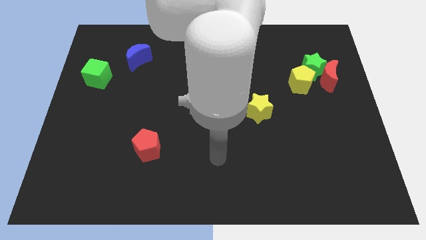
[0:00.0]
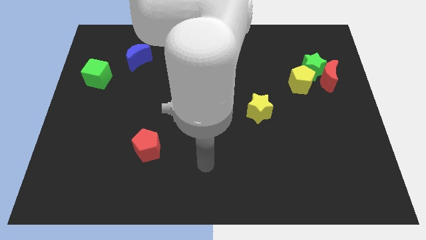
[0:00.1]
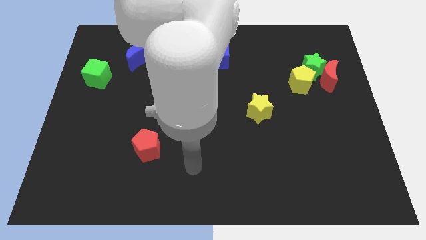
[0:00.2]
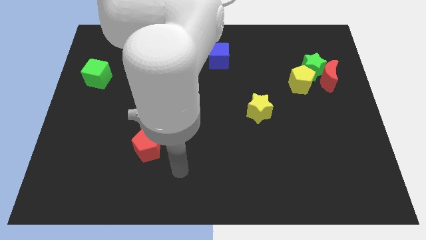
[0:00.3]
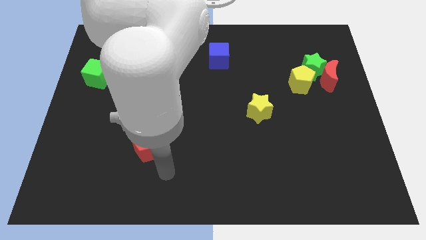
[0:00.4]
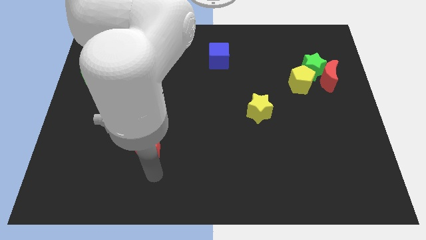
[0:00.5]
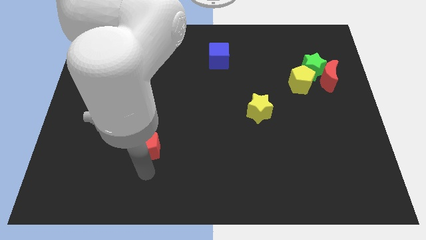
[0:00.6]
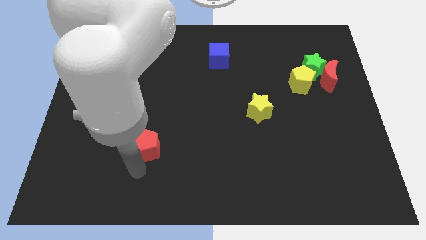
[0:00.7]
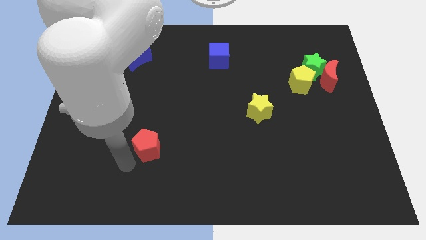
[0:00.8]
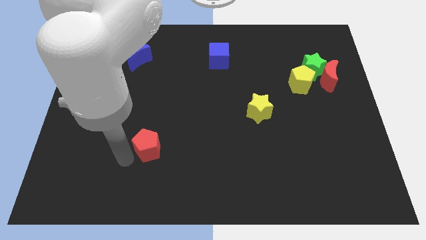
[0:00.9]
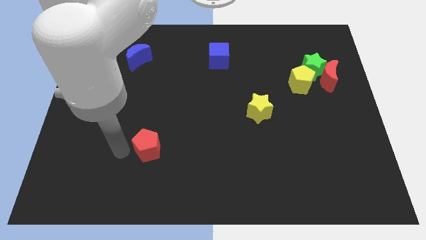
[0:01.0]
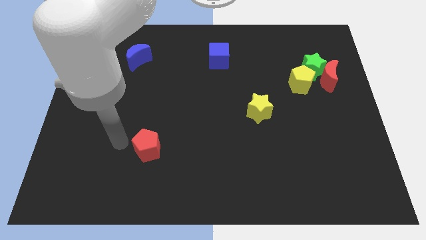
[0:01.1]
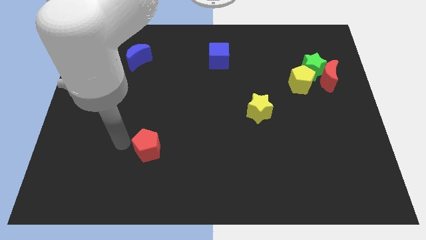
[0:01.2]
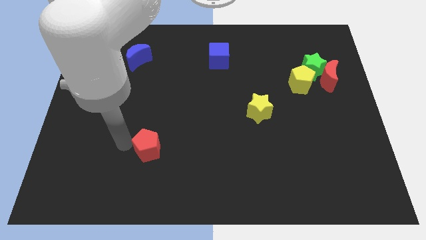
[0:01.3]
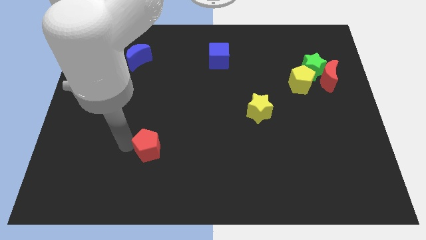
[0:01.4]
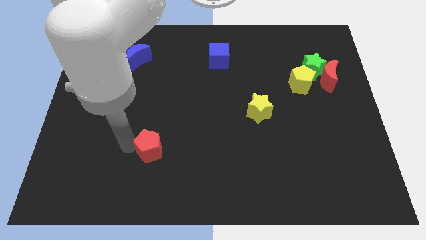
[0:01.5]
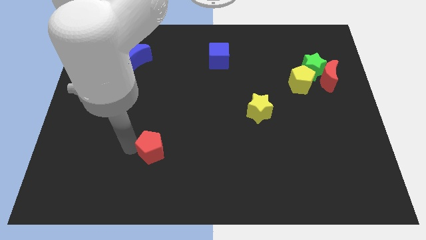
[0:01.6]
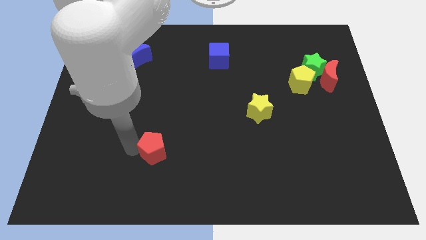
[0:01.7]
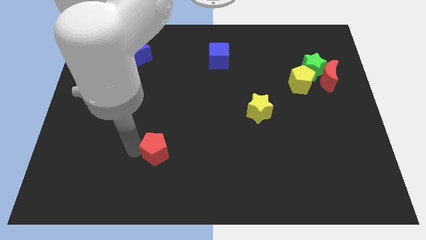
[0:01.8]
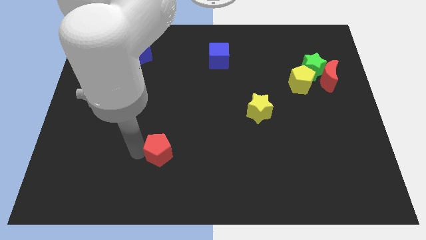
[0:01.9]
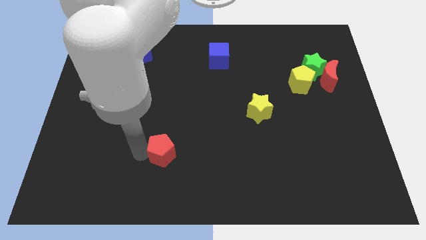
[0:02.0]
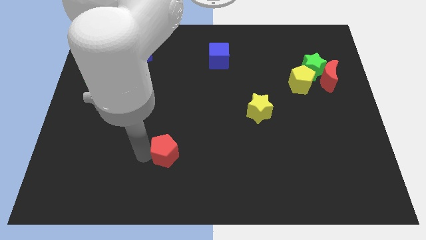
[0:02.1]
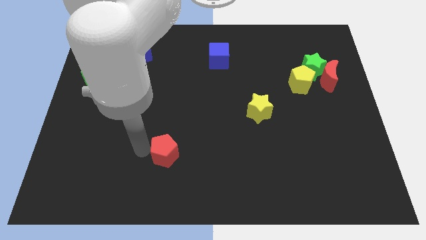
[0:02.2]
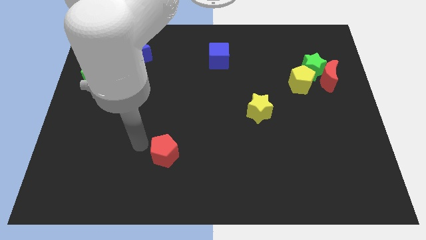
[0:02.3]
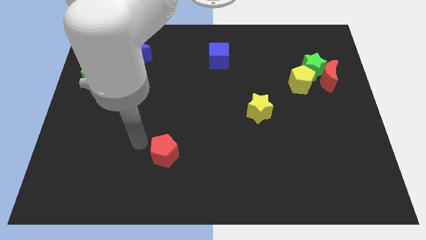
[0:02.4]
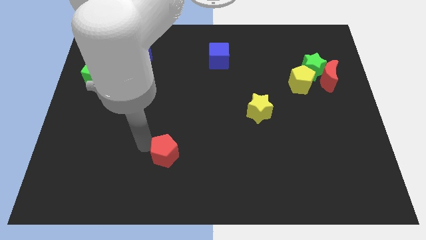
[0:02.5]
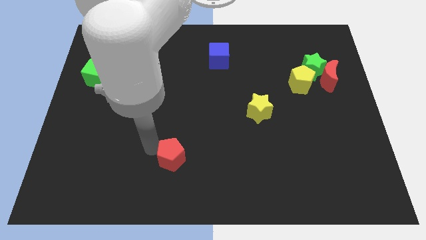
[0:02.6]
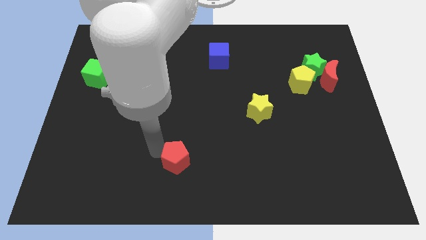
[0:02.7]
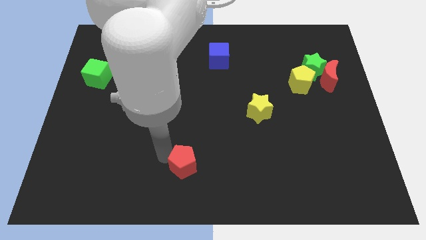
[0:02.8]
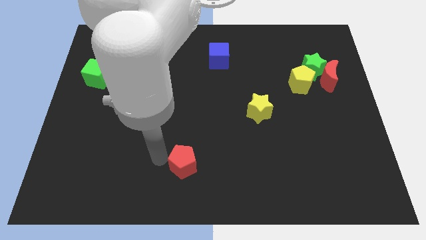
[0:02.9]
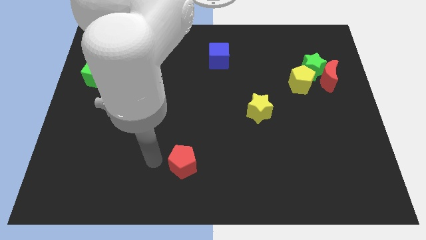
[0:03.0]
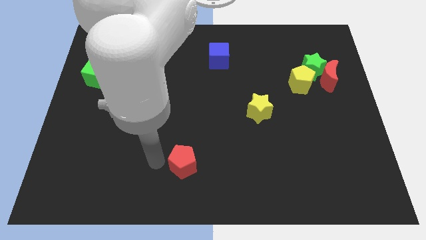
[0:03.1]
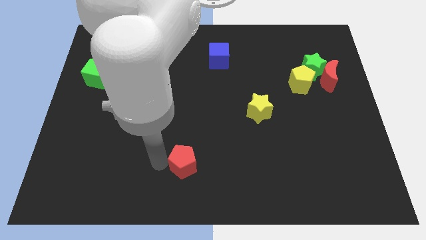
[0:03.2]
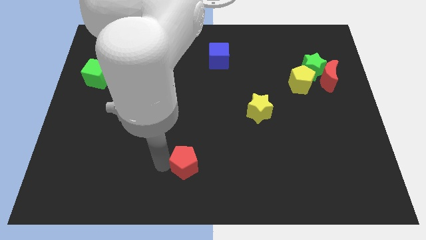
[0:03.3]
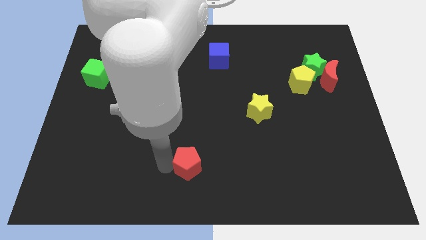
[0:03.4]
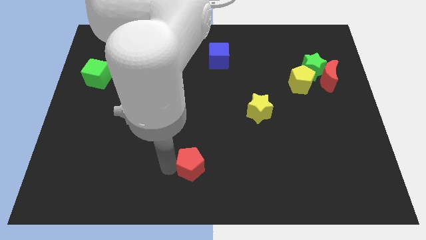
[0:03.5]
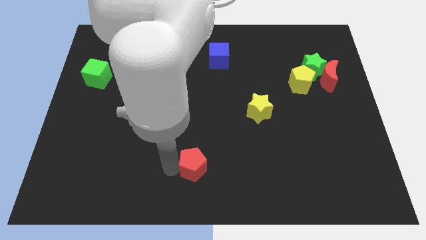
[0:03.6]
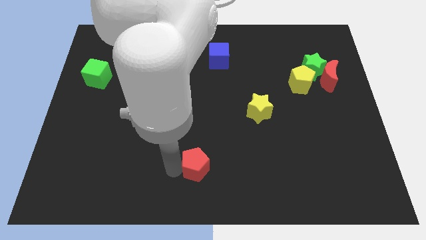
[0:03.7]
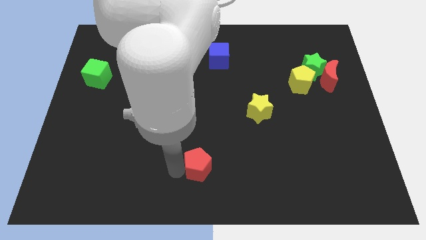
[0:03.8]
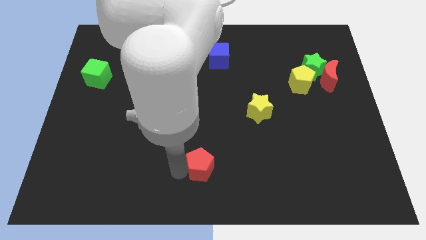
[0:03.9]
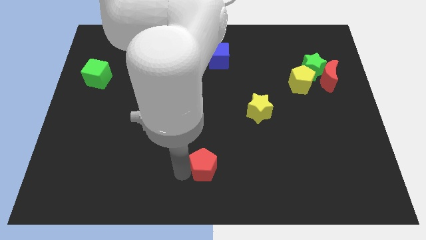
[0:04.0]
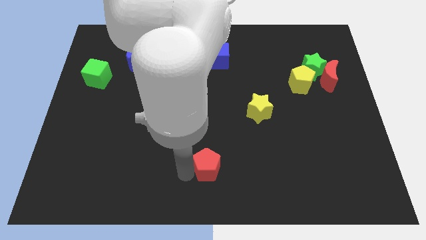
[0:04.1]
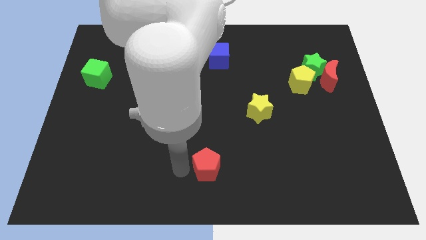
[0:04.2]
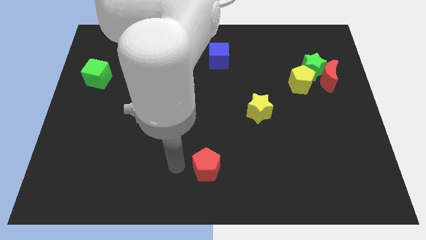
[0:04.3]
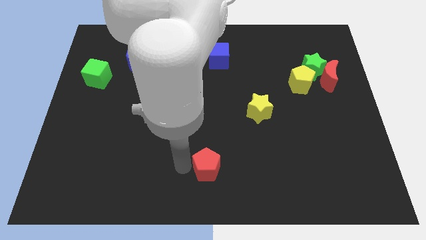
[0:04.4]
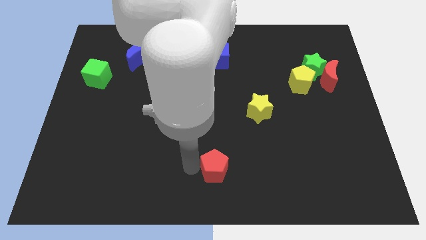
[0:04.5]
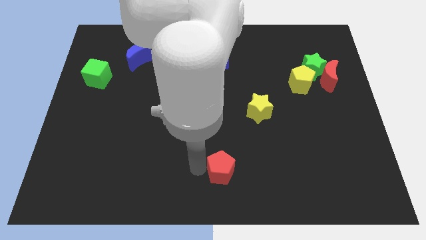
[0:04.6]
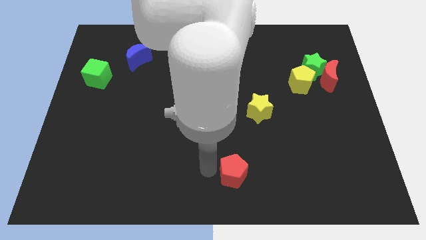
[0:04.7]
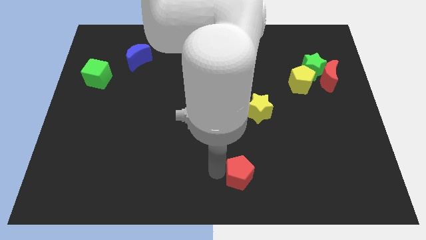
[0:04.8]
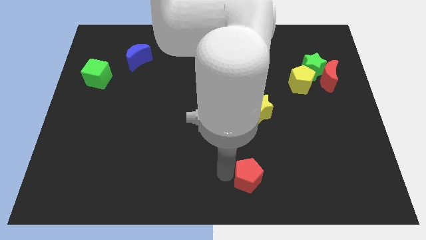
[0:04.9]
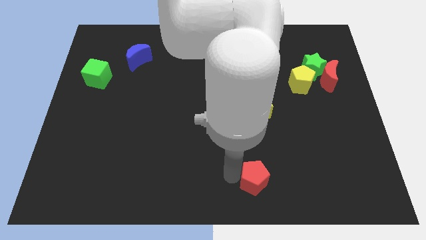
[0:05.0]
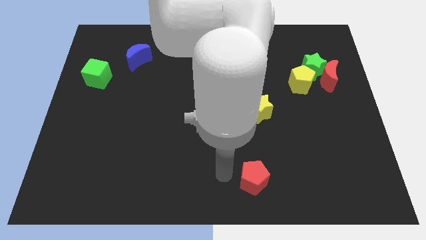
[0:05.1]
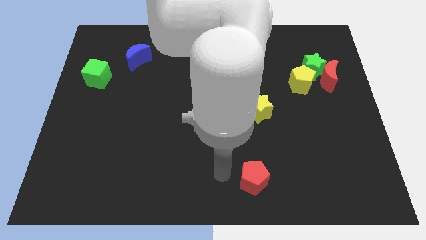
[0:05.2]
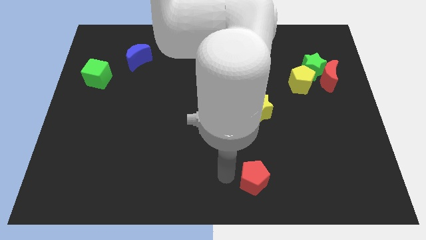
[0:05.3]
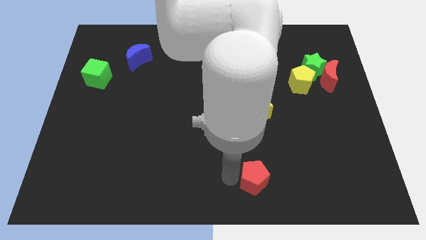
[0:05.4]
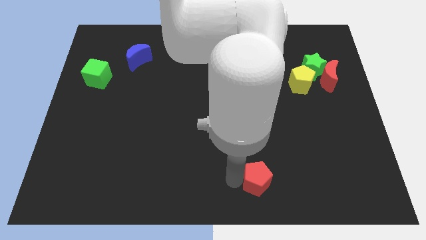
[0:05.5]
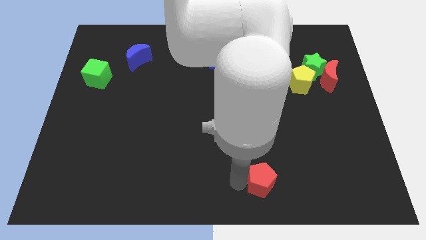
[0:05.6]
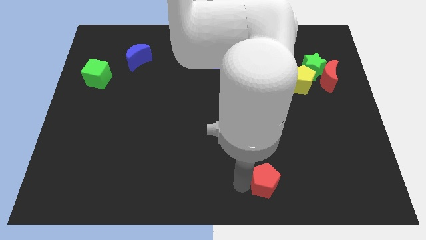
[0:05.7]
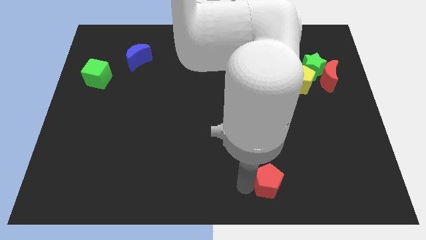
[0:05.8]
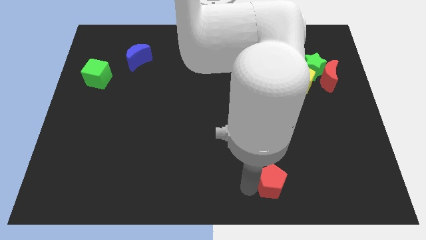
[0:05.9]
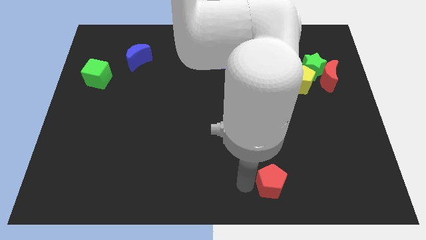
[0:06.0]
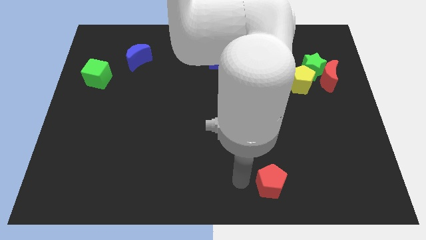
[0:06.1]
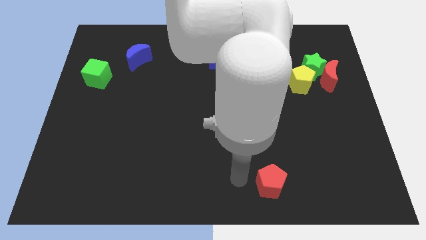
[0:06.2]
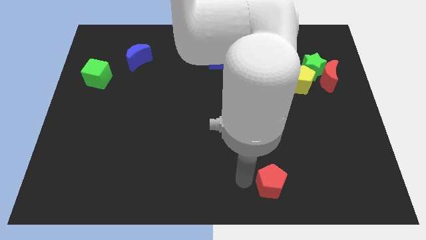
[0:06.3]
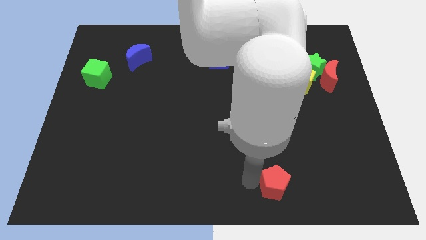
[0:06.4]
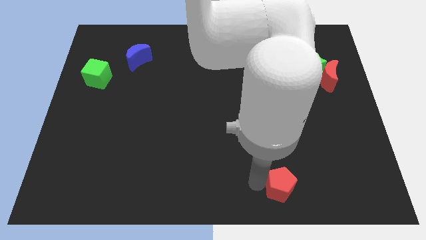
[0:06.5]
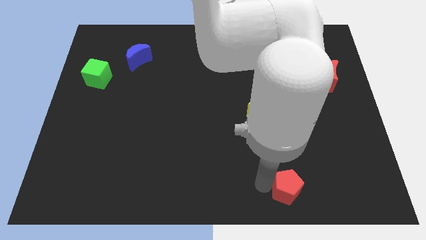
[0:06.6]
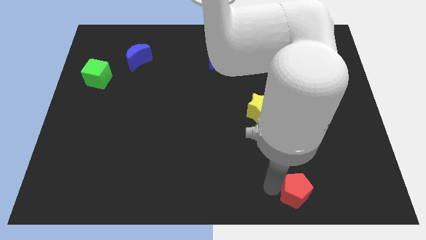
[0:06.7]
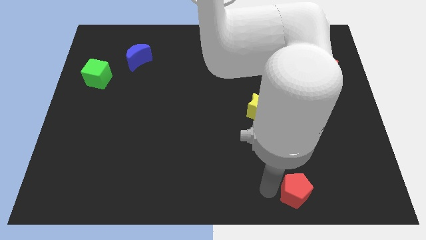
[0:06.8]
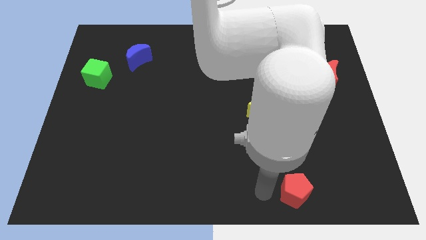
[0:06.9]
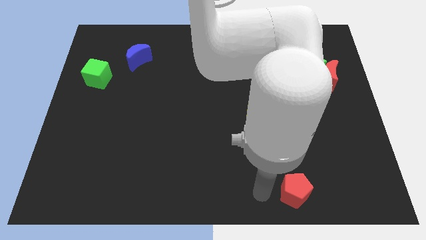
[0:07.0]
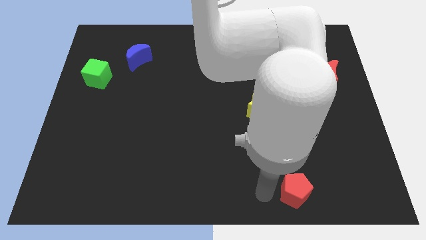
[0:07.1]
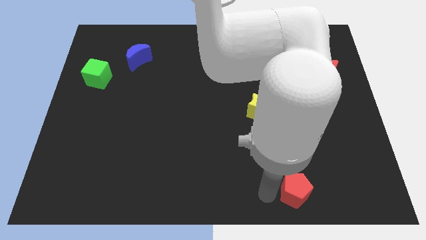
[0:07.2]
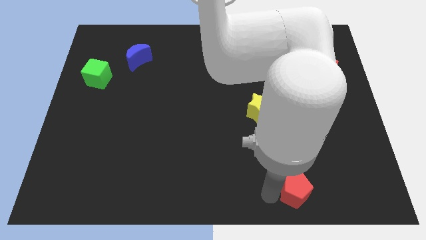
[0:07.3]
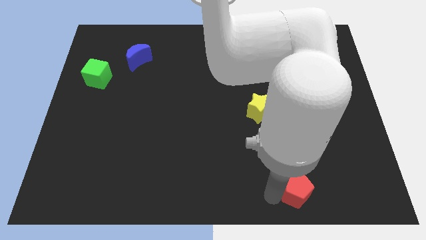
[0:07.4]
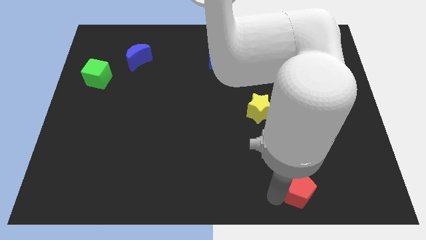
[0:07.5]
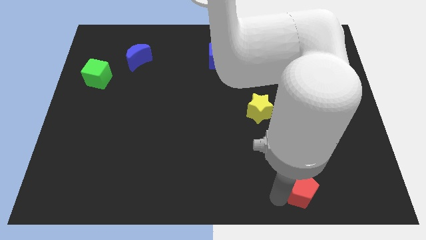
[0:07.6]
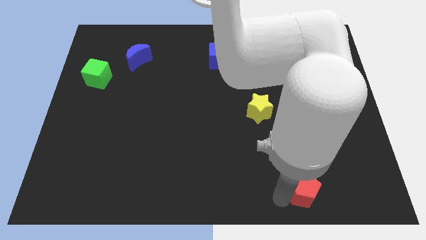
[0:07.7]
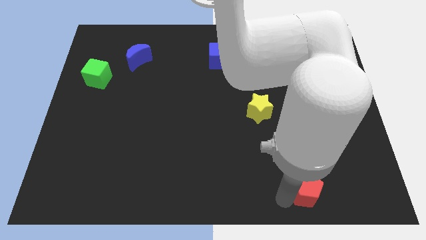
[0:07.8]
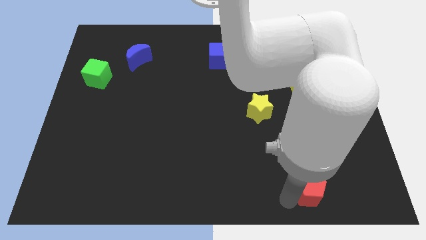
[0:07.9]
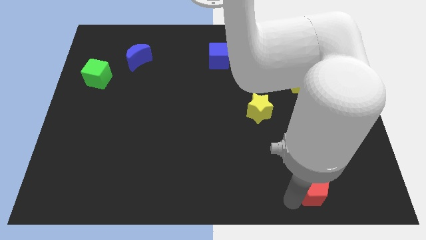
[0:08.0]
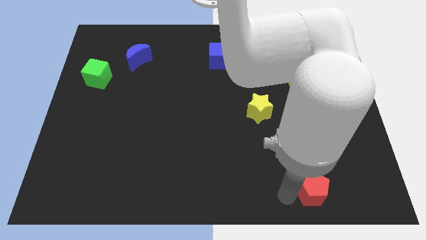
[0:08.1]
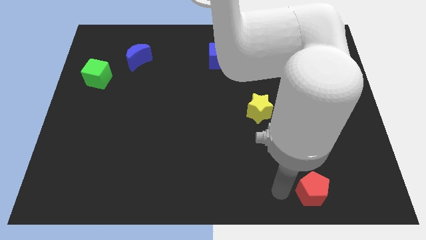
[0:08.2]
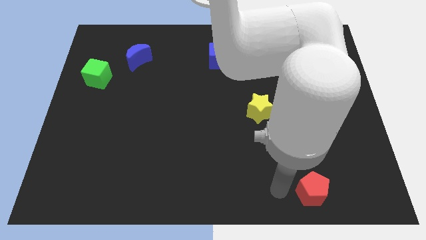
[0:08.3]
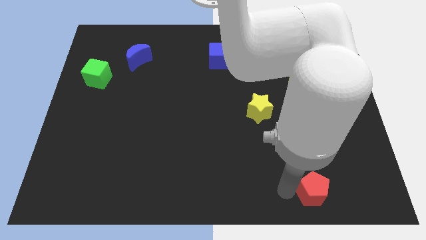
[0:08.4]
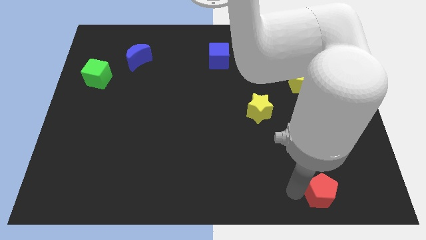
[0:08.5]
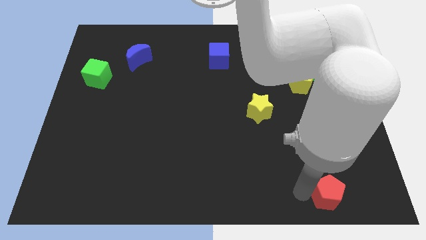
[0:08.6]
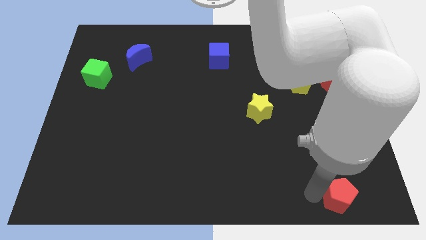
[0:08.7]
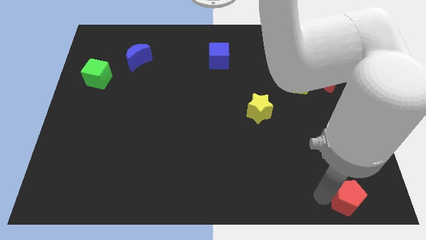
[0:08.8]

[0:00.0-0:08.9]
slide the red pentagon to the bottom right of the board
